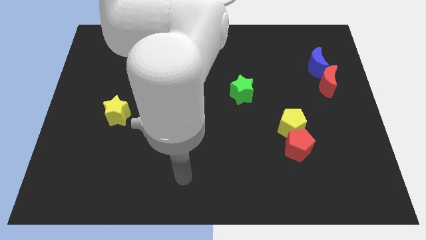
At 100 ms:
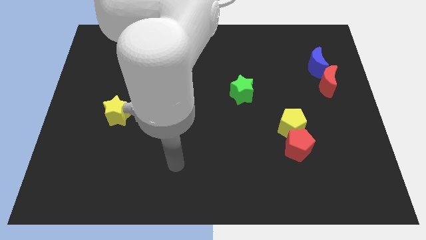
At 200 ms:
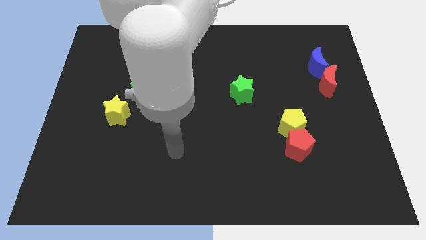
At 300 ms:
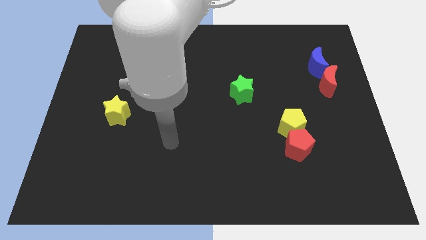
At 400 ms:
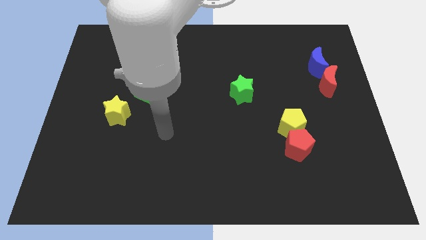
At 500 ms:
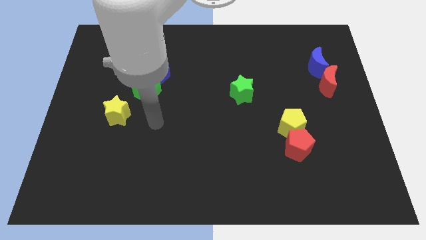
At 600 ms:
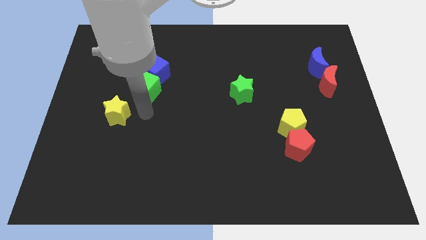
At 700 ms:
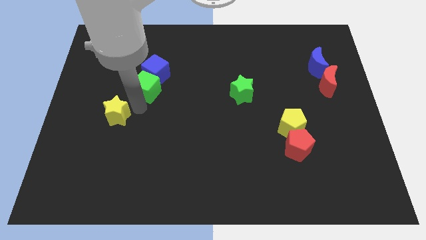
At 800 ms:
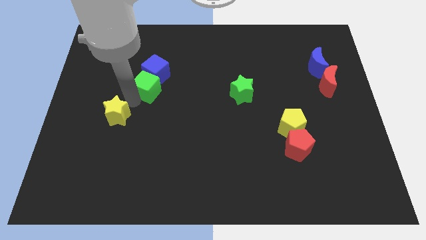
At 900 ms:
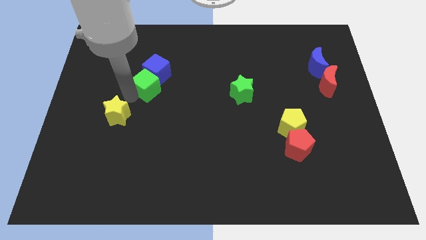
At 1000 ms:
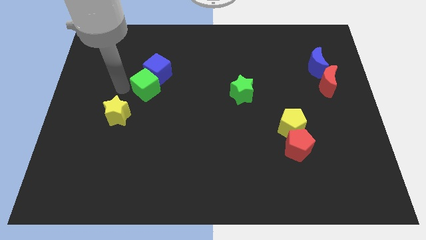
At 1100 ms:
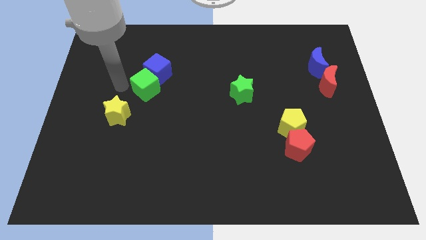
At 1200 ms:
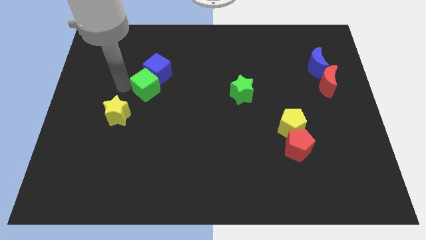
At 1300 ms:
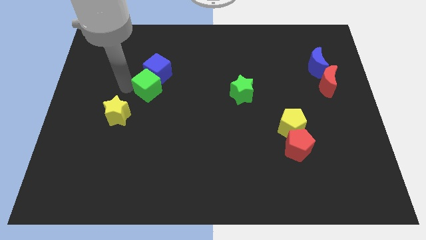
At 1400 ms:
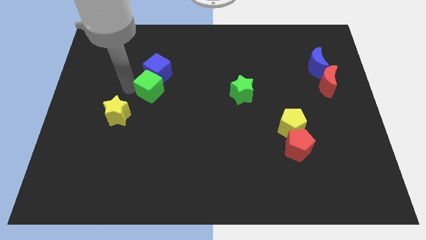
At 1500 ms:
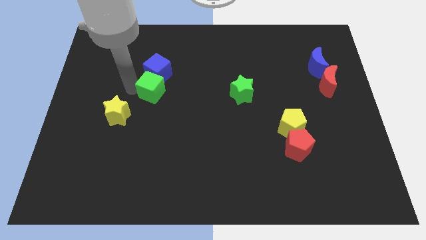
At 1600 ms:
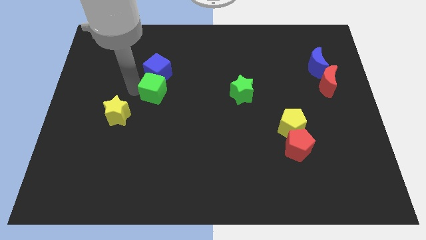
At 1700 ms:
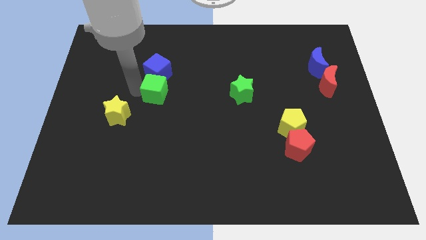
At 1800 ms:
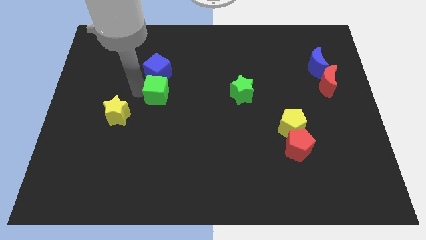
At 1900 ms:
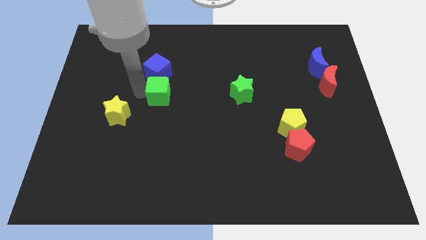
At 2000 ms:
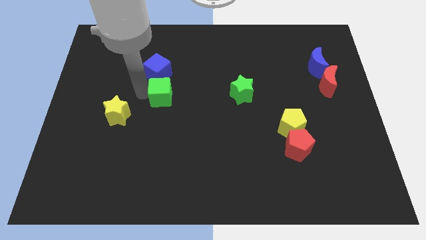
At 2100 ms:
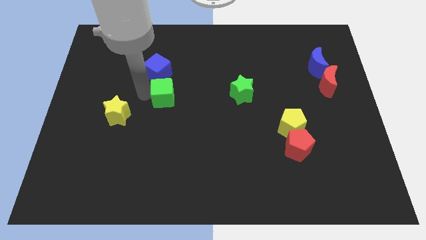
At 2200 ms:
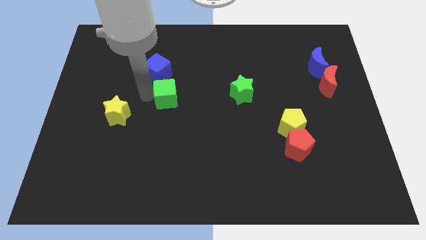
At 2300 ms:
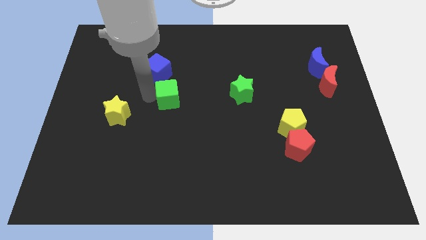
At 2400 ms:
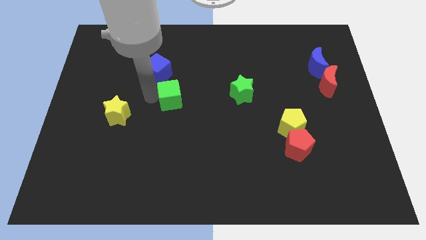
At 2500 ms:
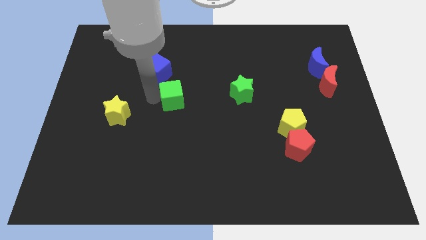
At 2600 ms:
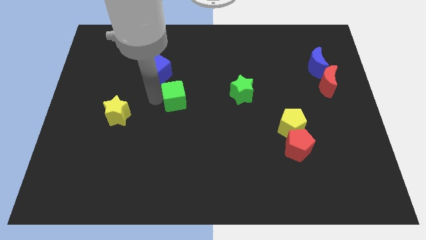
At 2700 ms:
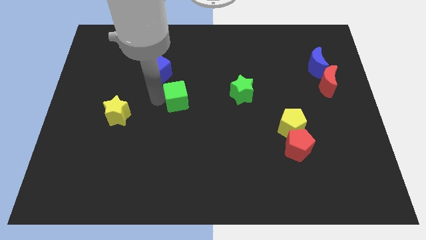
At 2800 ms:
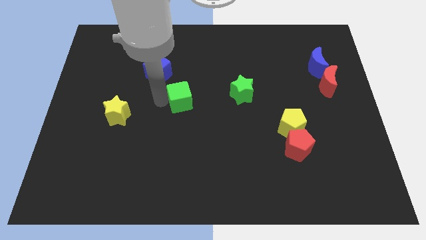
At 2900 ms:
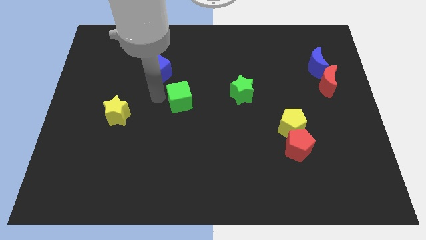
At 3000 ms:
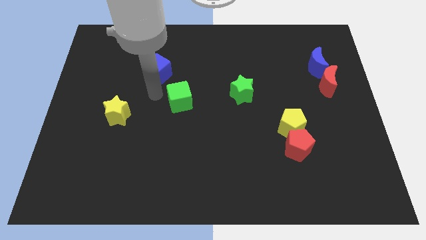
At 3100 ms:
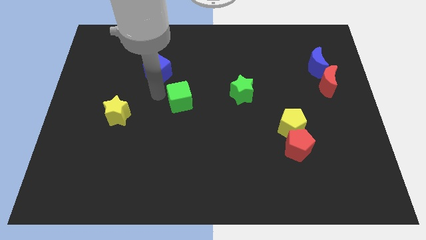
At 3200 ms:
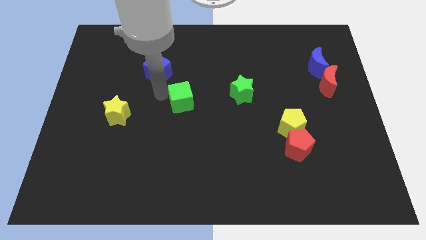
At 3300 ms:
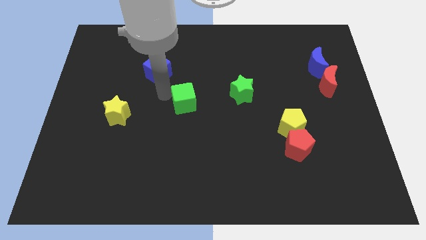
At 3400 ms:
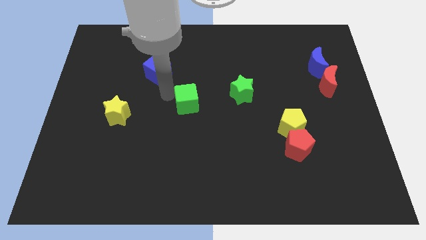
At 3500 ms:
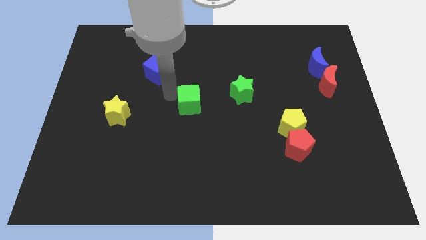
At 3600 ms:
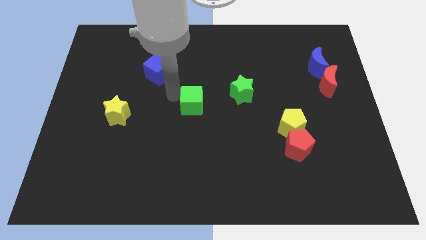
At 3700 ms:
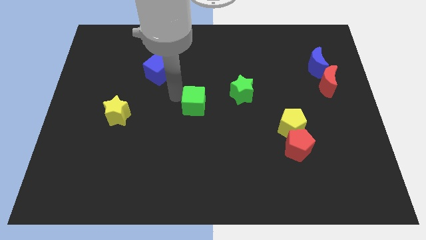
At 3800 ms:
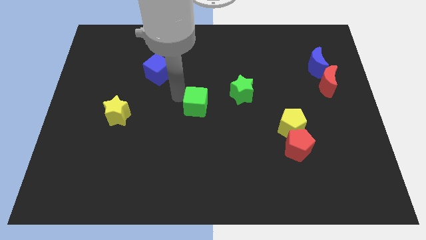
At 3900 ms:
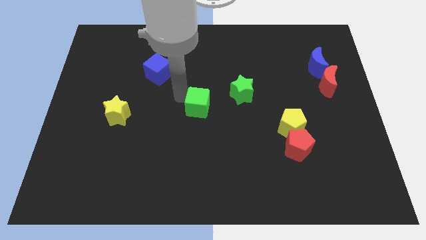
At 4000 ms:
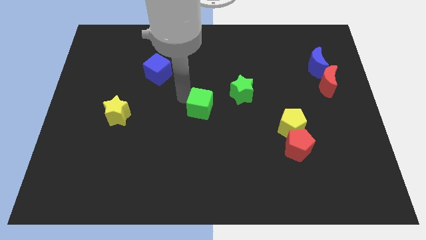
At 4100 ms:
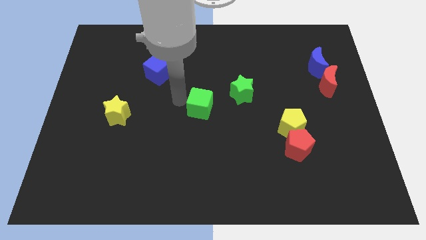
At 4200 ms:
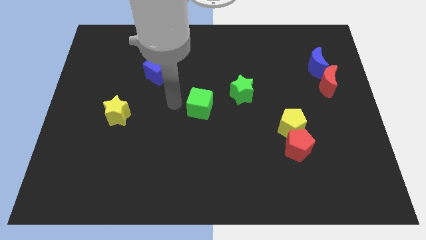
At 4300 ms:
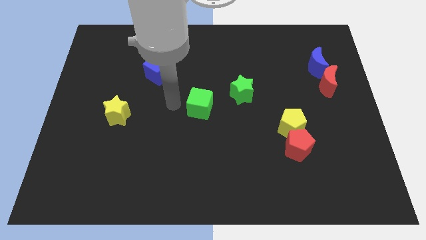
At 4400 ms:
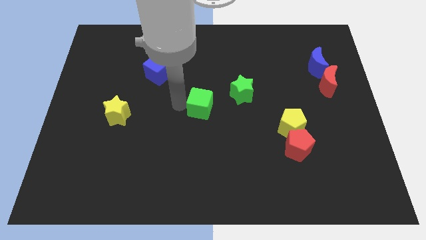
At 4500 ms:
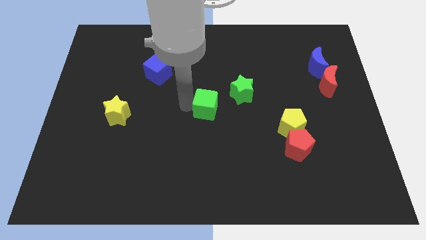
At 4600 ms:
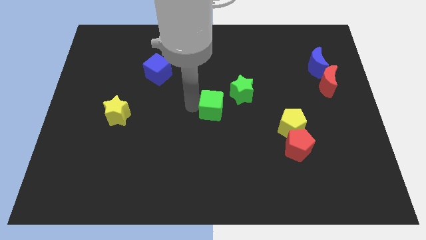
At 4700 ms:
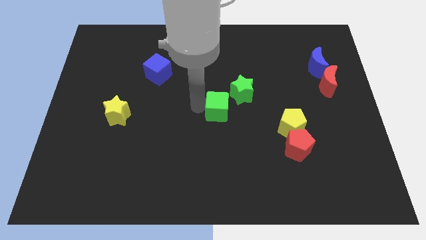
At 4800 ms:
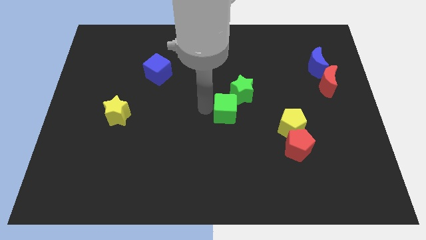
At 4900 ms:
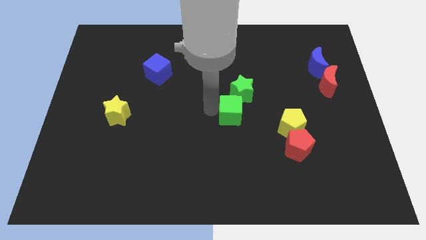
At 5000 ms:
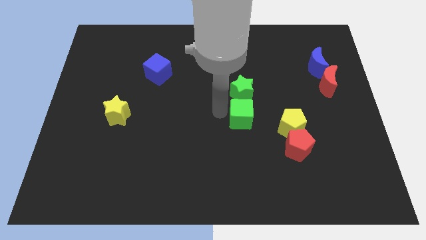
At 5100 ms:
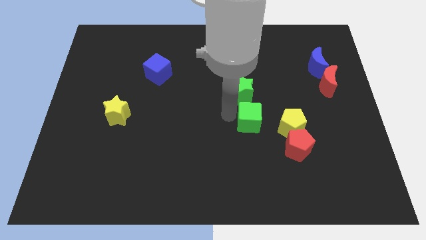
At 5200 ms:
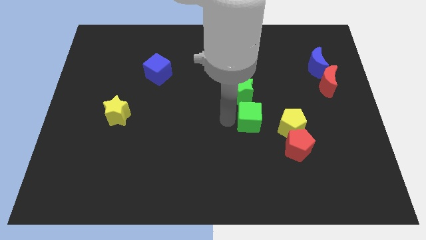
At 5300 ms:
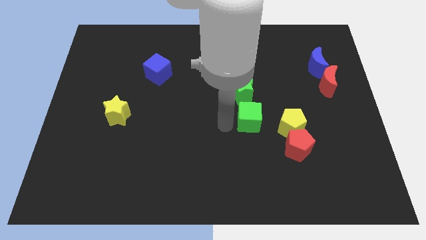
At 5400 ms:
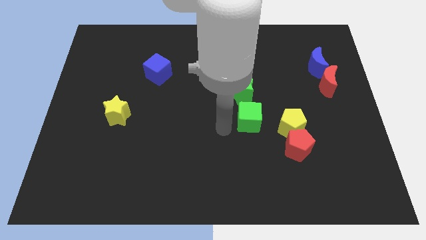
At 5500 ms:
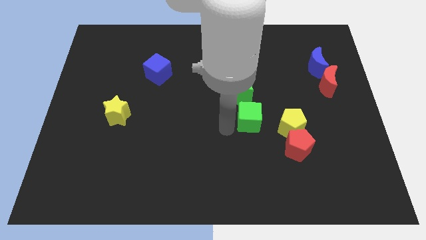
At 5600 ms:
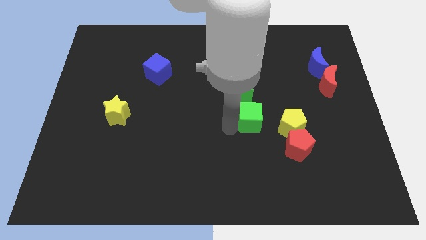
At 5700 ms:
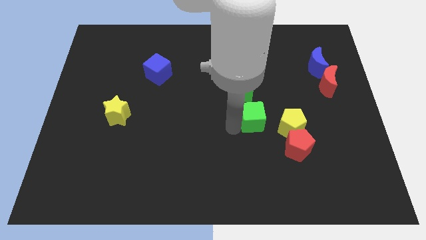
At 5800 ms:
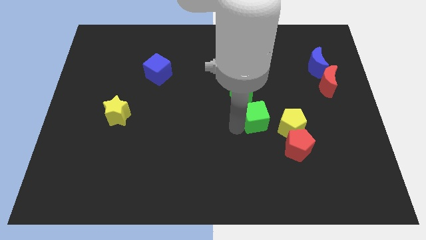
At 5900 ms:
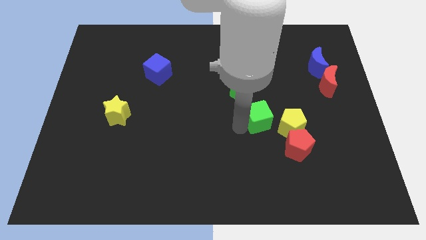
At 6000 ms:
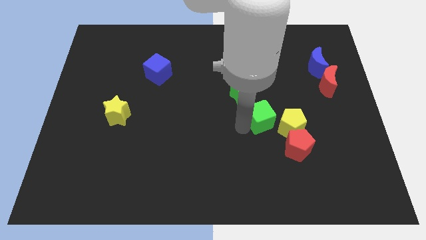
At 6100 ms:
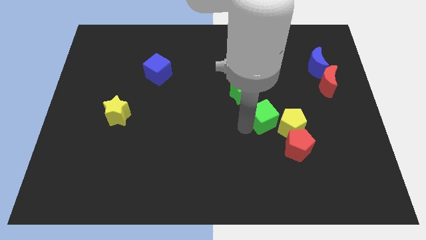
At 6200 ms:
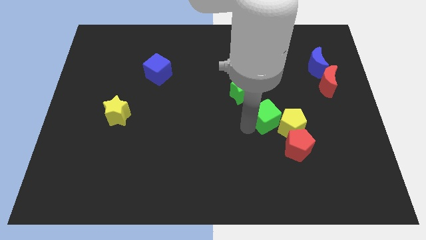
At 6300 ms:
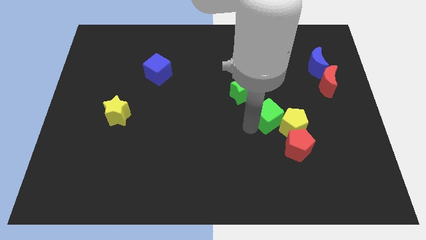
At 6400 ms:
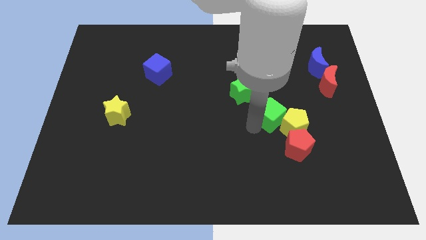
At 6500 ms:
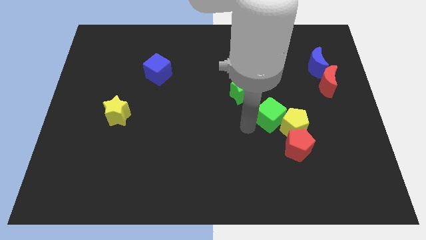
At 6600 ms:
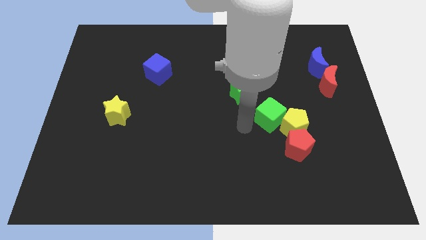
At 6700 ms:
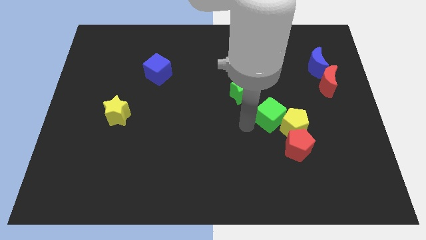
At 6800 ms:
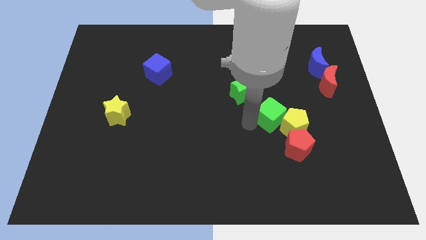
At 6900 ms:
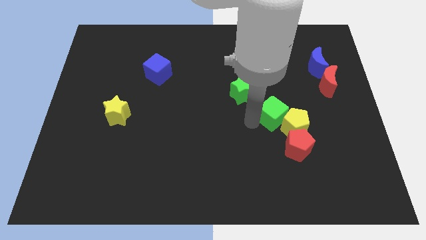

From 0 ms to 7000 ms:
slide the green cube to the top side of the red pentagon
